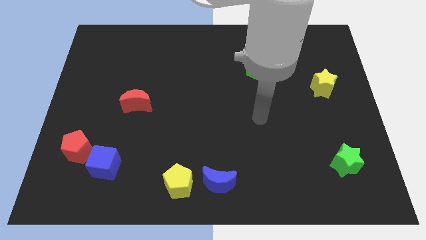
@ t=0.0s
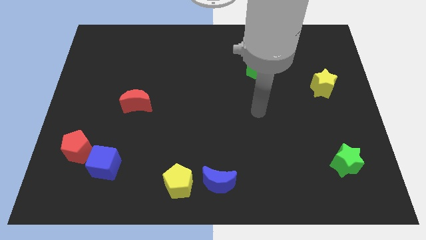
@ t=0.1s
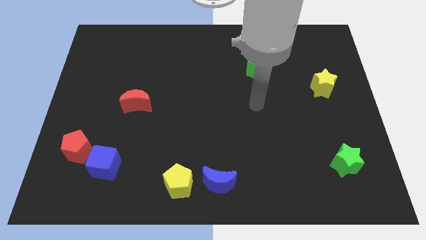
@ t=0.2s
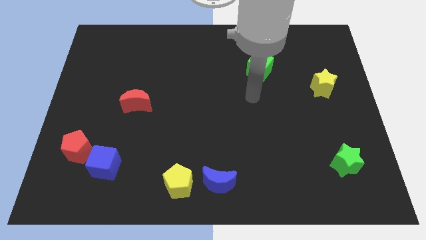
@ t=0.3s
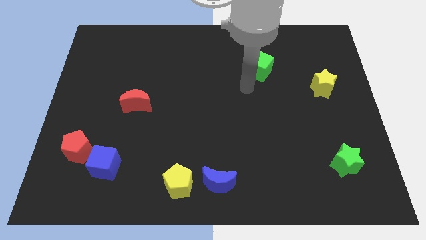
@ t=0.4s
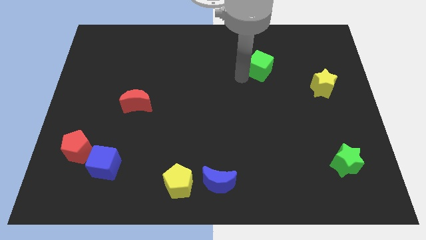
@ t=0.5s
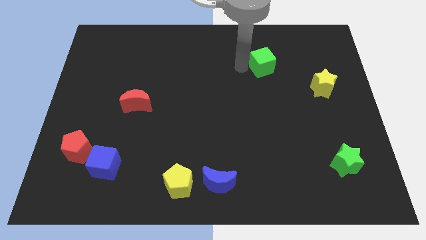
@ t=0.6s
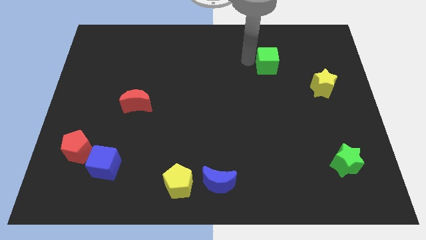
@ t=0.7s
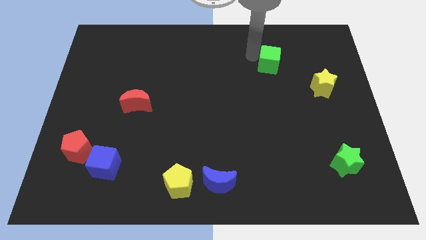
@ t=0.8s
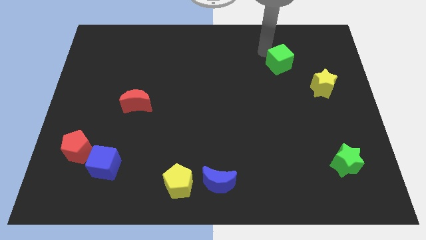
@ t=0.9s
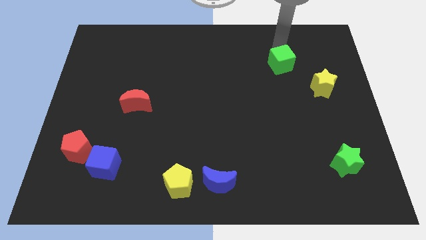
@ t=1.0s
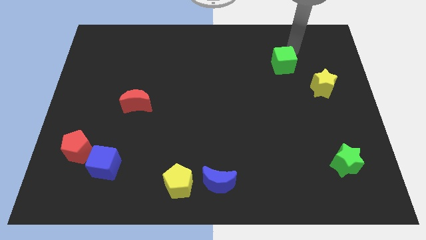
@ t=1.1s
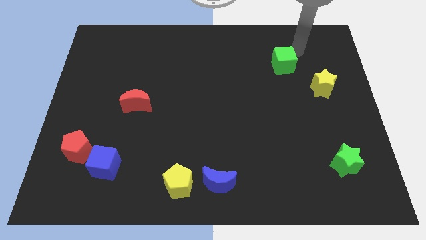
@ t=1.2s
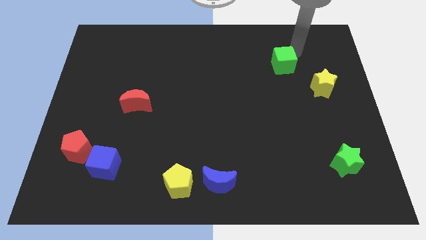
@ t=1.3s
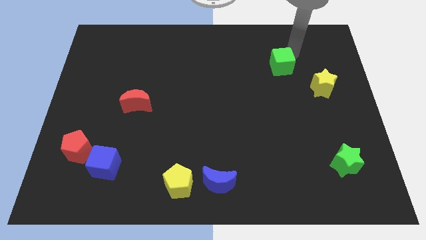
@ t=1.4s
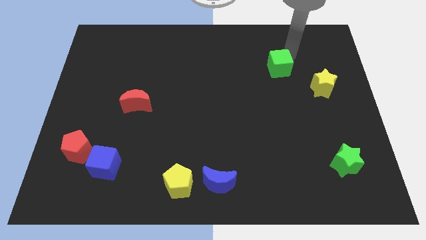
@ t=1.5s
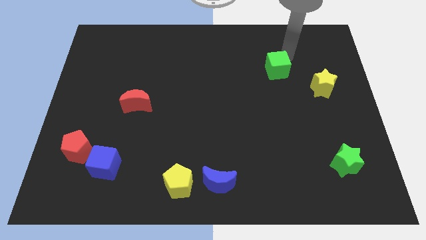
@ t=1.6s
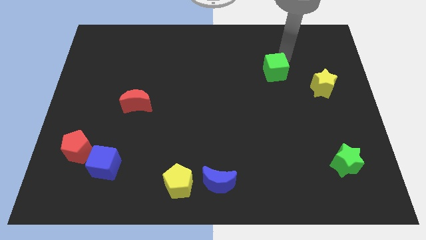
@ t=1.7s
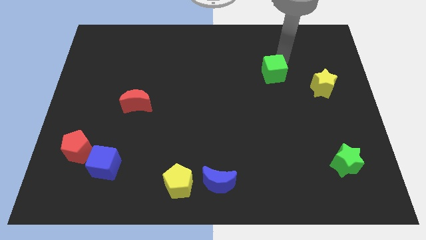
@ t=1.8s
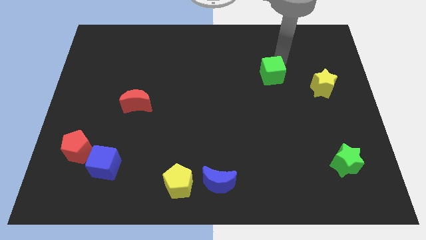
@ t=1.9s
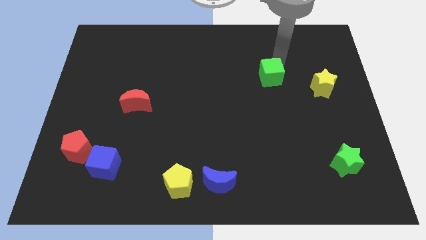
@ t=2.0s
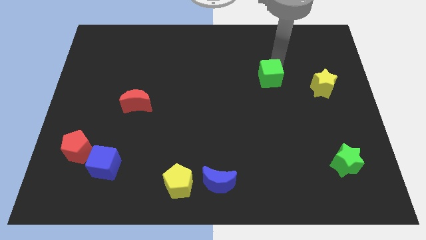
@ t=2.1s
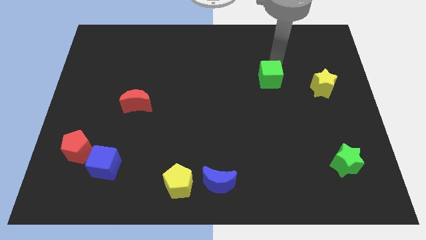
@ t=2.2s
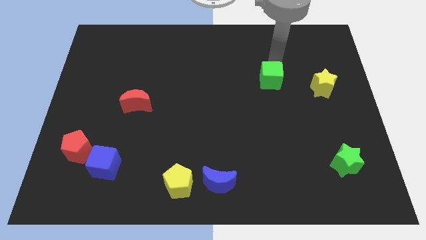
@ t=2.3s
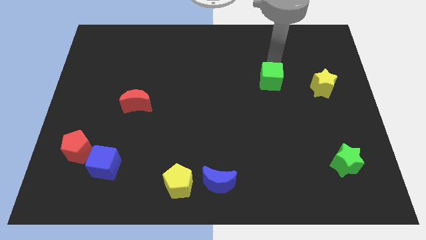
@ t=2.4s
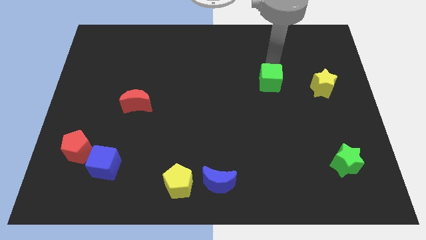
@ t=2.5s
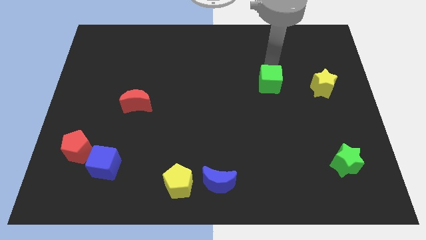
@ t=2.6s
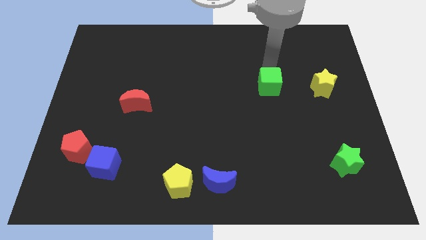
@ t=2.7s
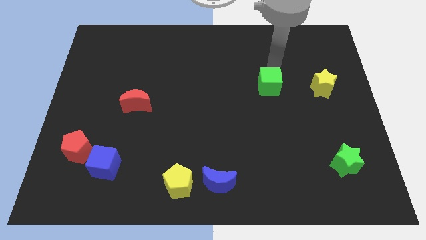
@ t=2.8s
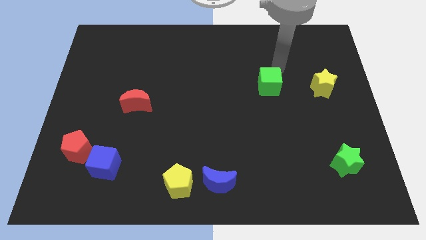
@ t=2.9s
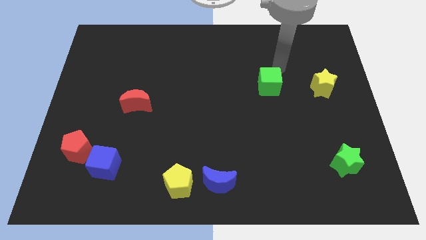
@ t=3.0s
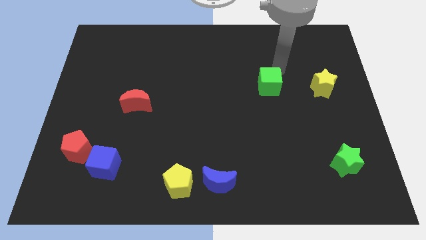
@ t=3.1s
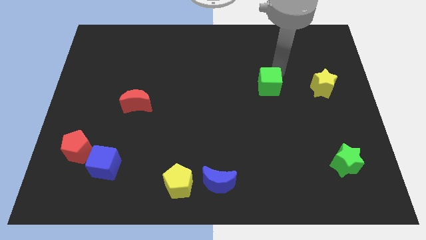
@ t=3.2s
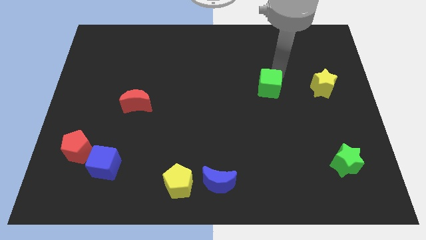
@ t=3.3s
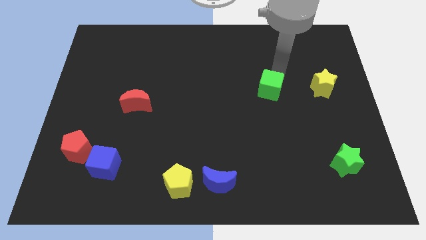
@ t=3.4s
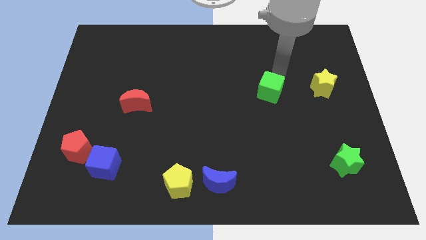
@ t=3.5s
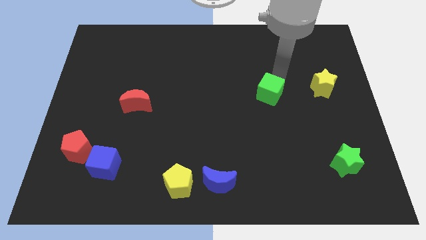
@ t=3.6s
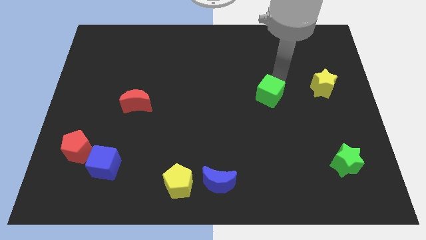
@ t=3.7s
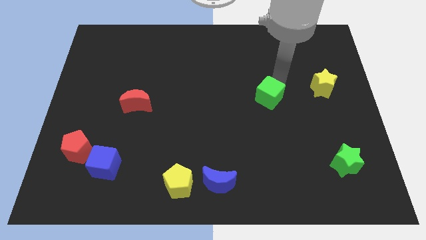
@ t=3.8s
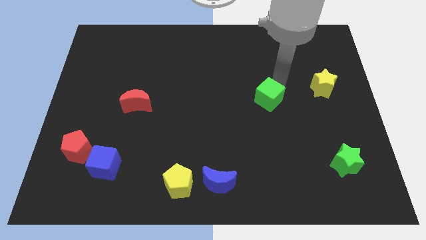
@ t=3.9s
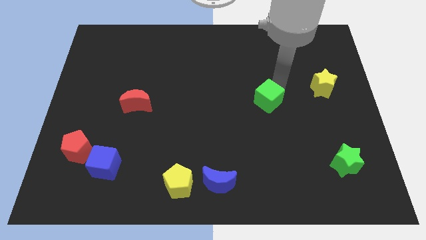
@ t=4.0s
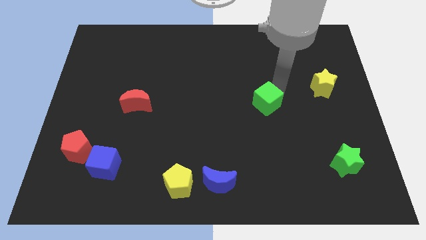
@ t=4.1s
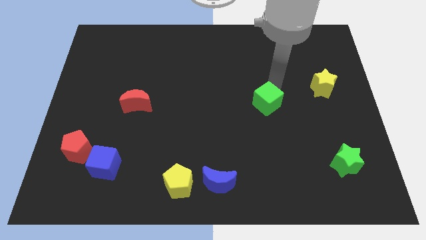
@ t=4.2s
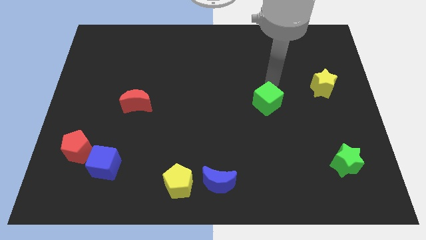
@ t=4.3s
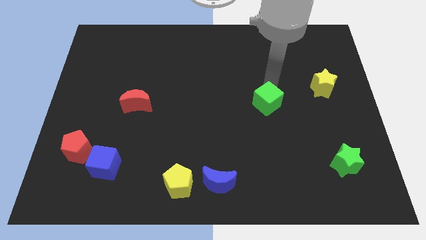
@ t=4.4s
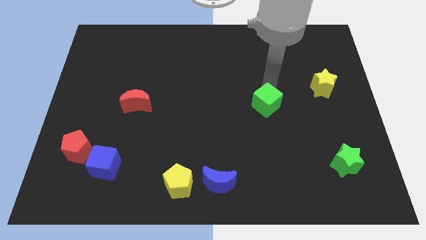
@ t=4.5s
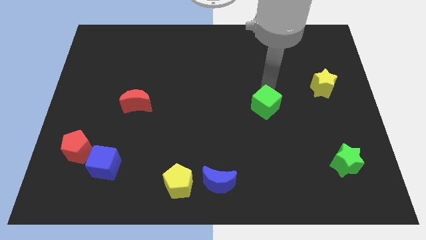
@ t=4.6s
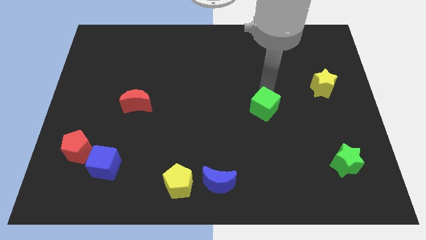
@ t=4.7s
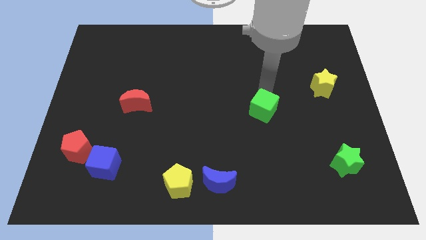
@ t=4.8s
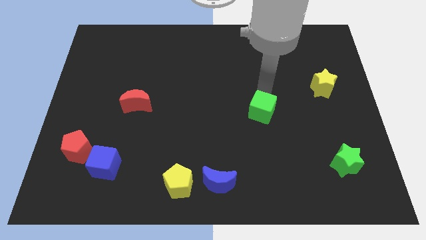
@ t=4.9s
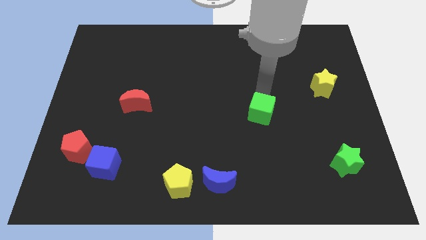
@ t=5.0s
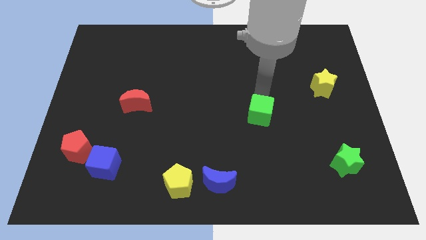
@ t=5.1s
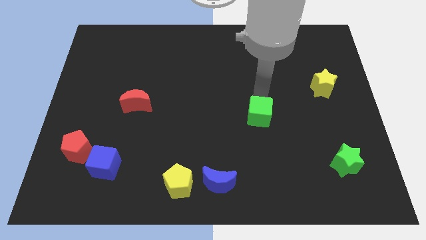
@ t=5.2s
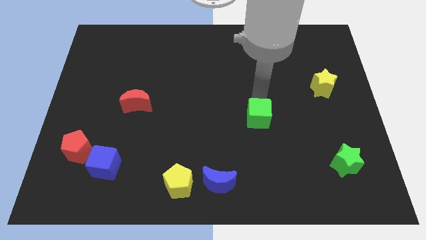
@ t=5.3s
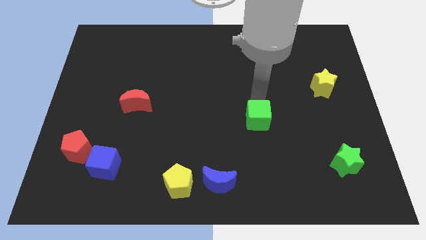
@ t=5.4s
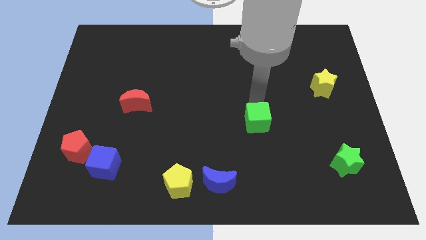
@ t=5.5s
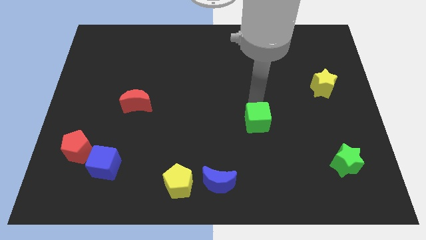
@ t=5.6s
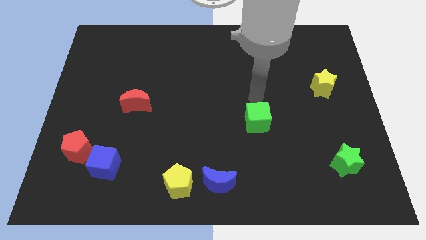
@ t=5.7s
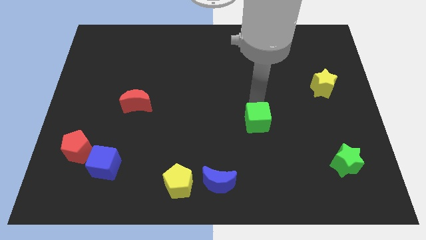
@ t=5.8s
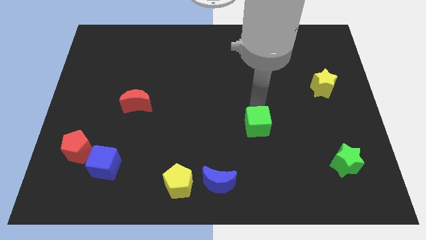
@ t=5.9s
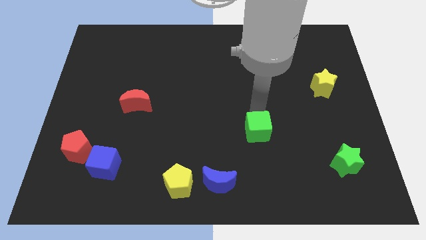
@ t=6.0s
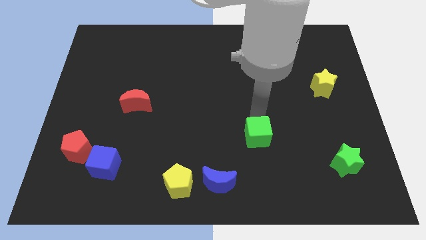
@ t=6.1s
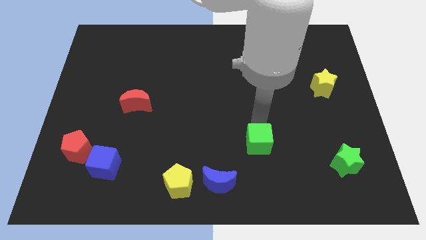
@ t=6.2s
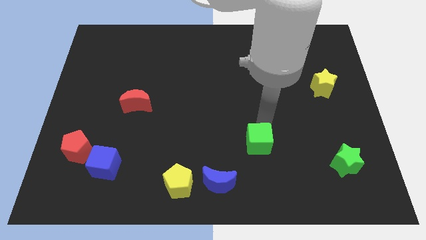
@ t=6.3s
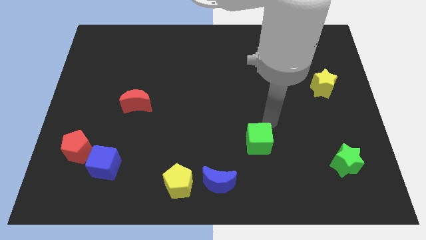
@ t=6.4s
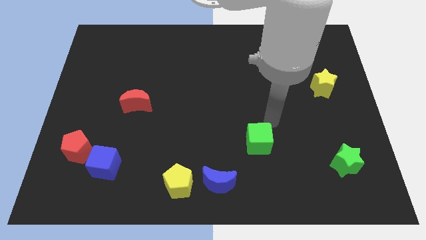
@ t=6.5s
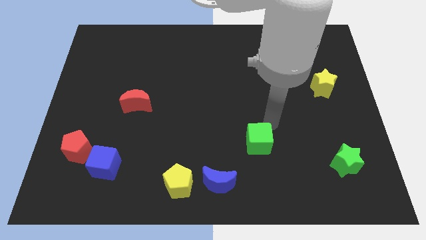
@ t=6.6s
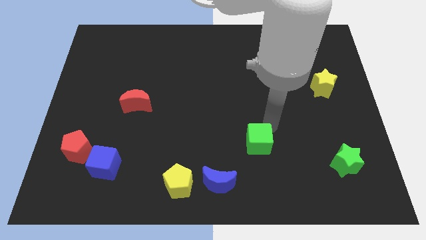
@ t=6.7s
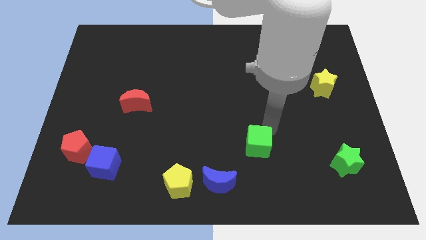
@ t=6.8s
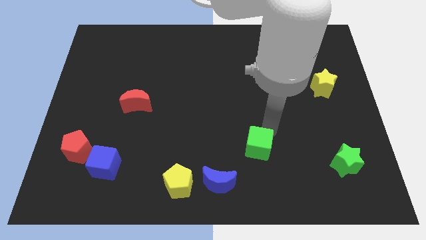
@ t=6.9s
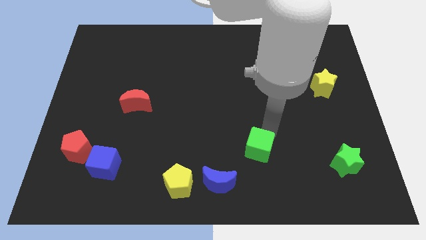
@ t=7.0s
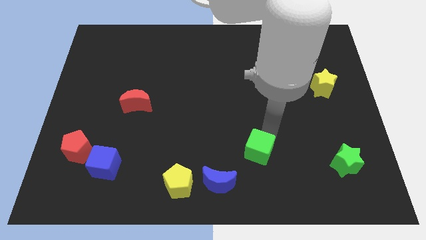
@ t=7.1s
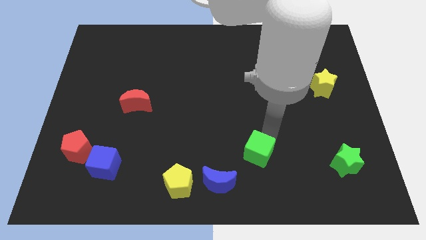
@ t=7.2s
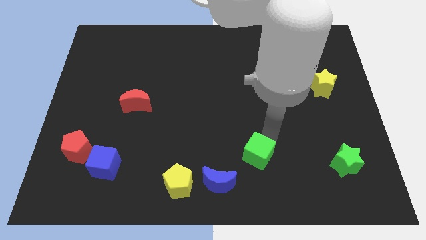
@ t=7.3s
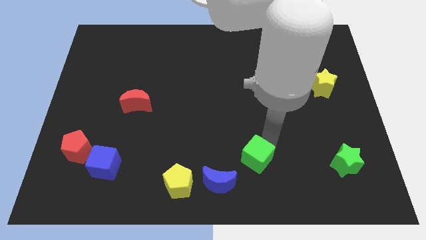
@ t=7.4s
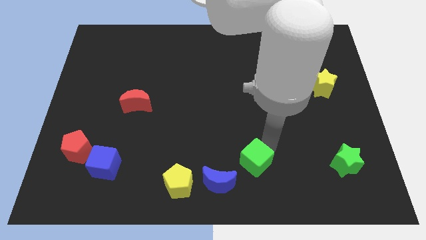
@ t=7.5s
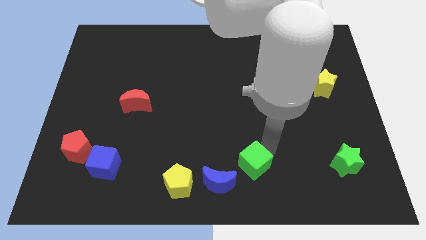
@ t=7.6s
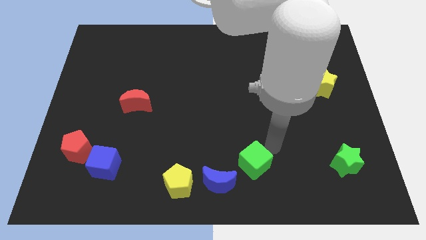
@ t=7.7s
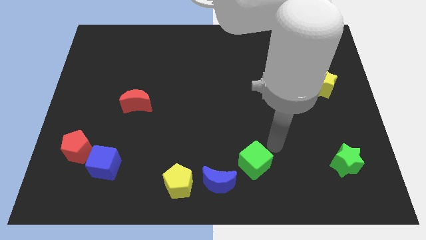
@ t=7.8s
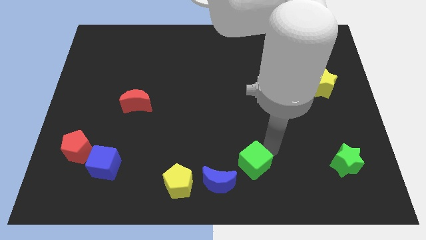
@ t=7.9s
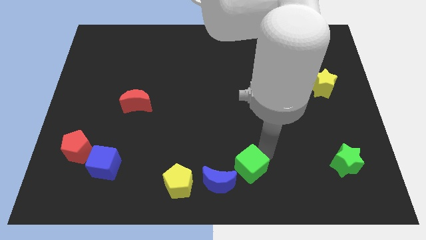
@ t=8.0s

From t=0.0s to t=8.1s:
move the green cube just right of the yellow pentagon
